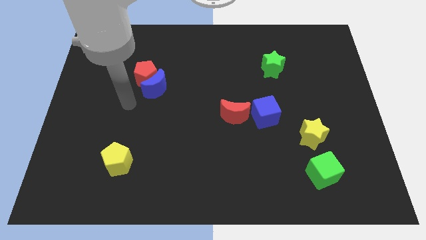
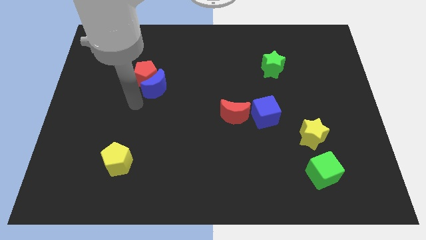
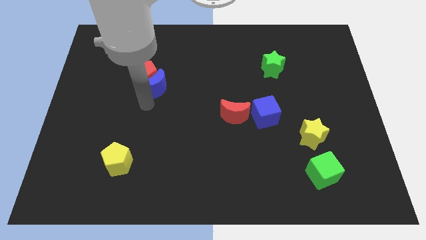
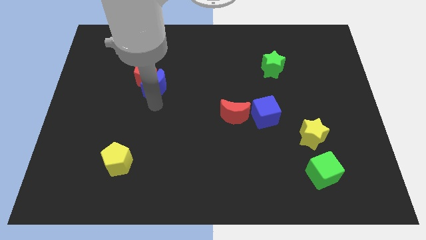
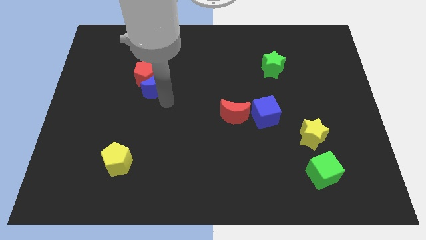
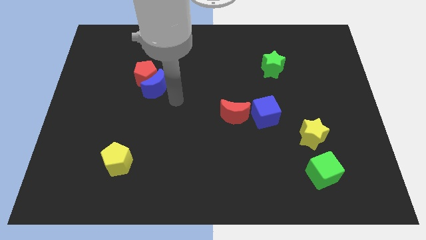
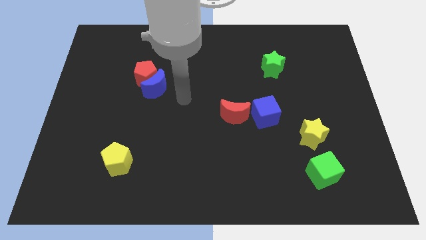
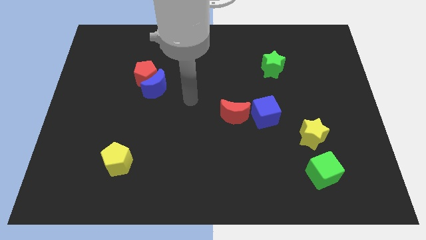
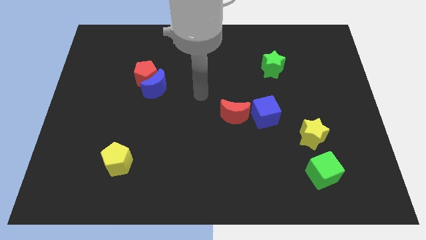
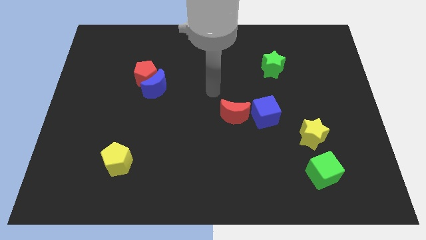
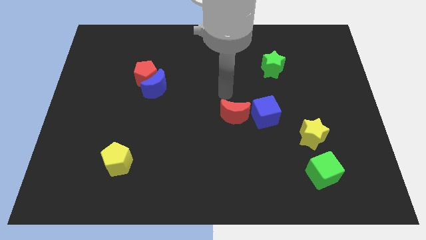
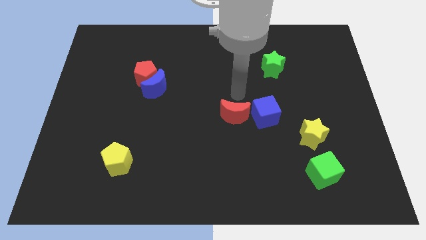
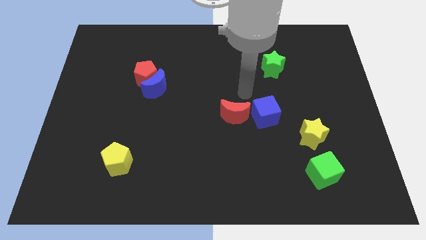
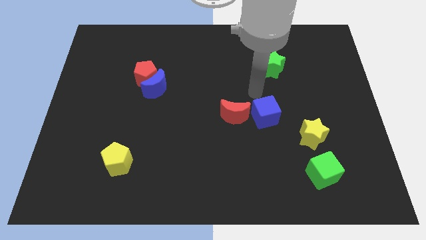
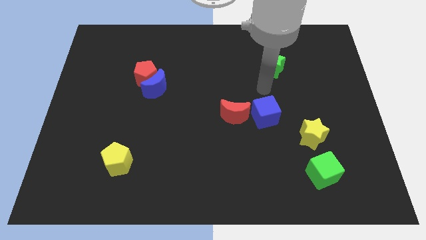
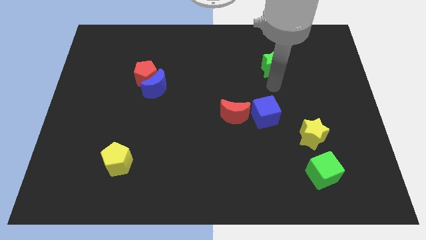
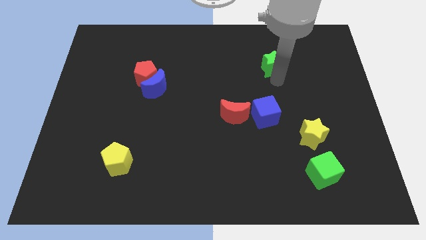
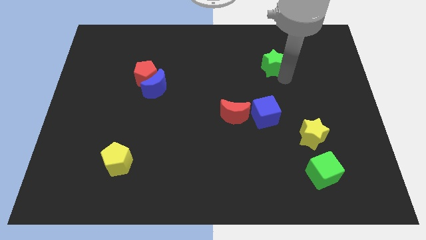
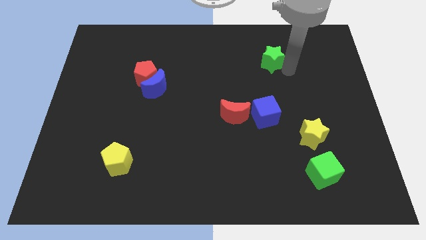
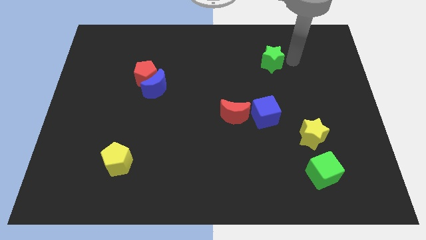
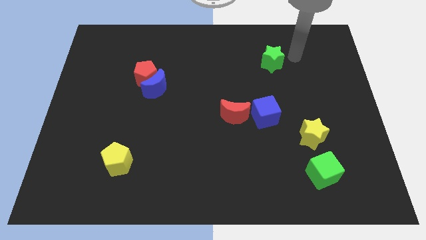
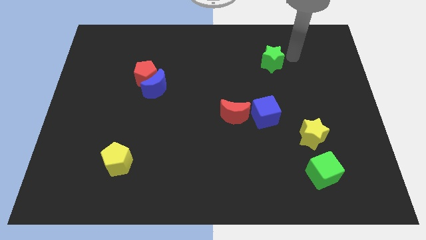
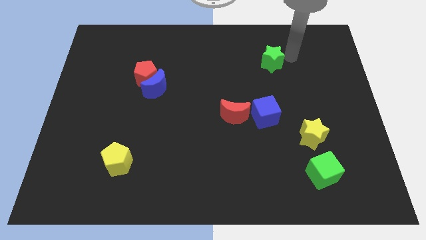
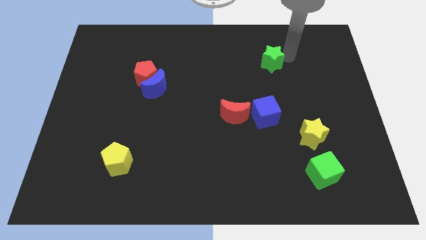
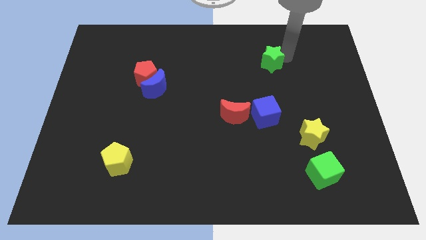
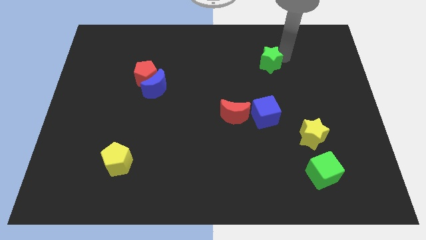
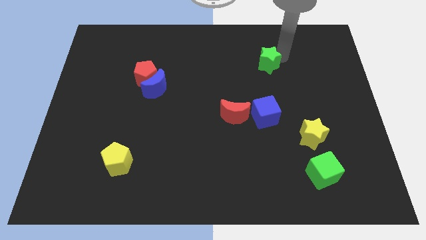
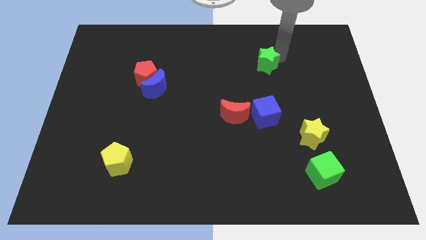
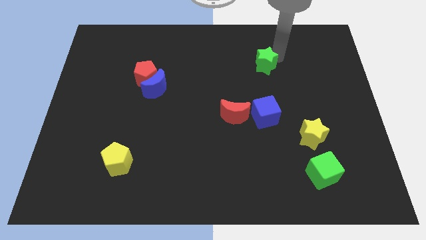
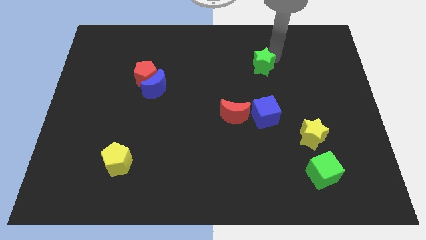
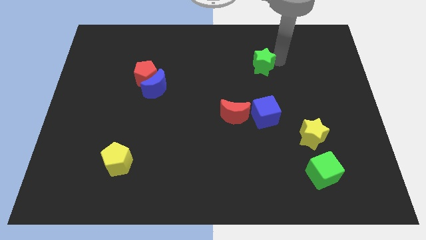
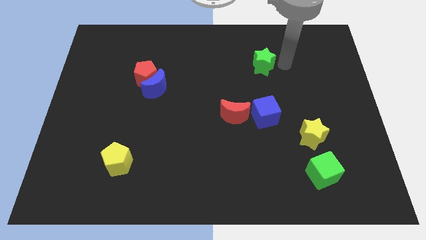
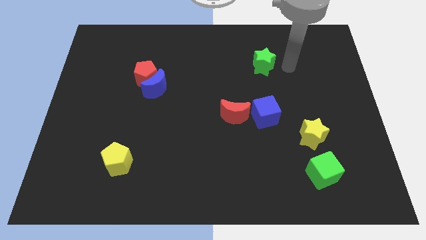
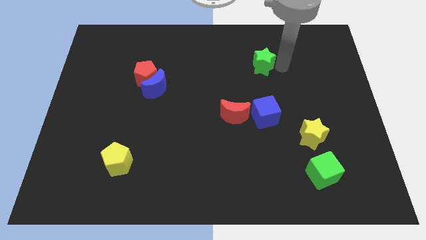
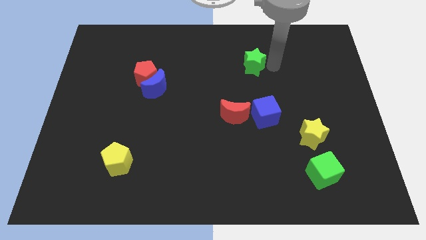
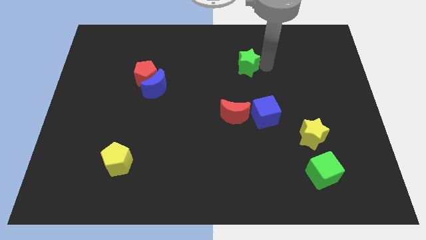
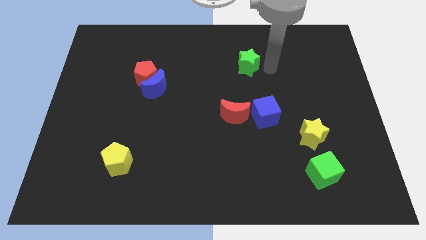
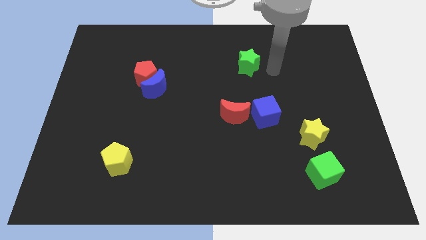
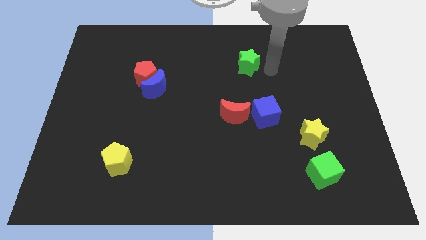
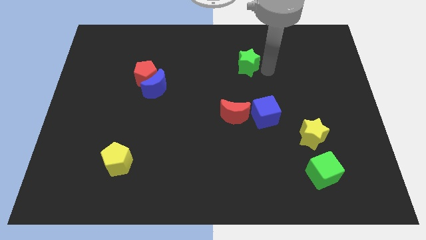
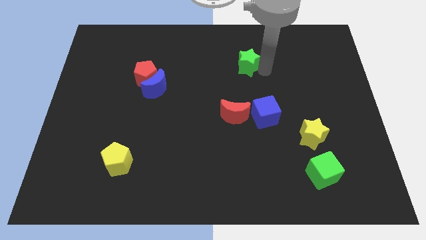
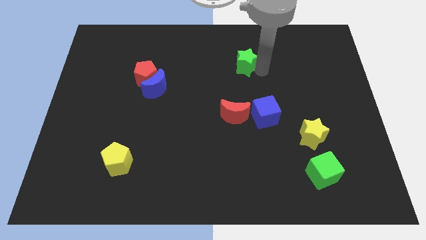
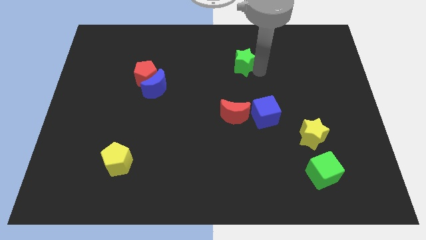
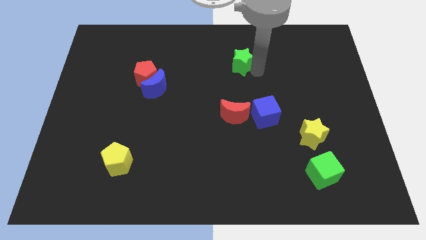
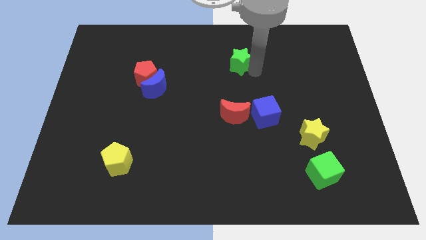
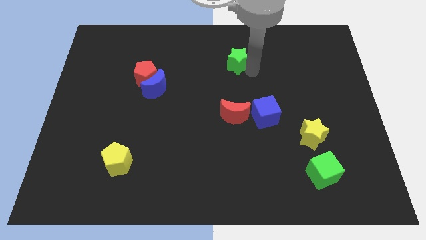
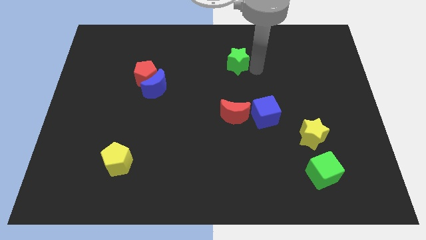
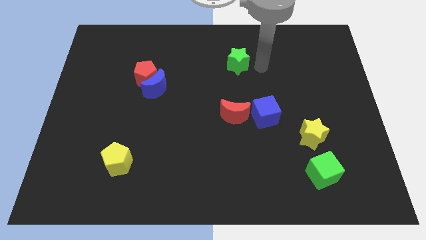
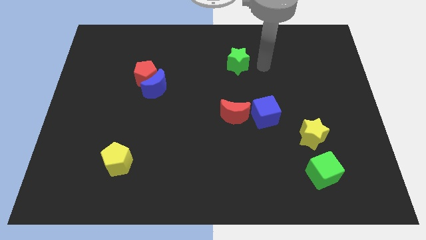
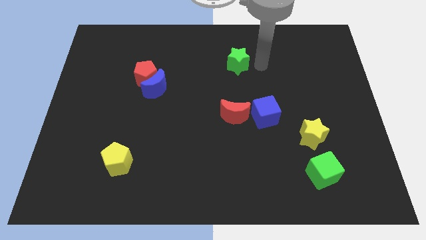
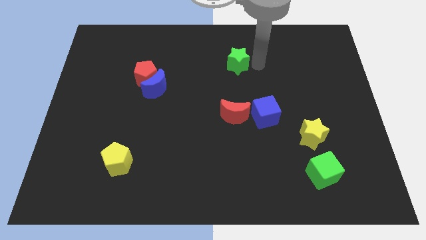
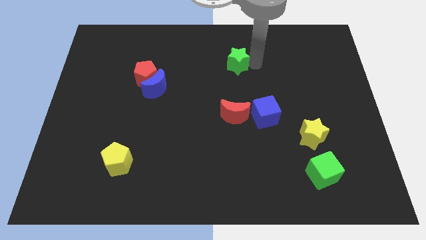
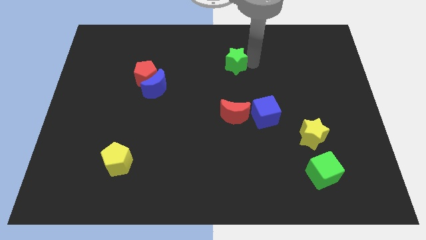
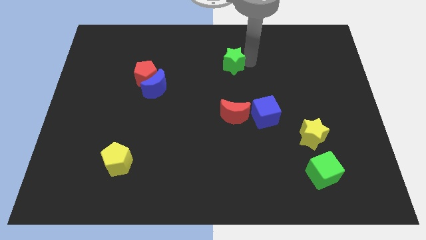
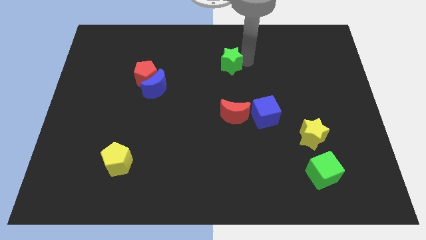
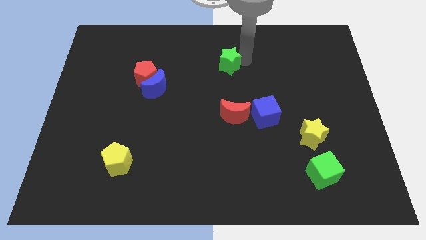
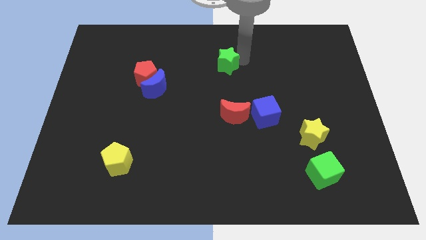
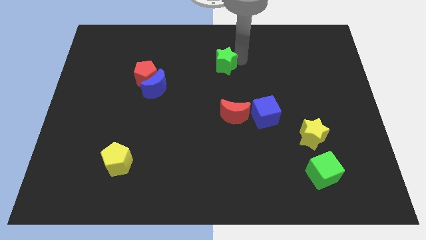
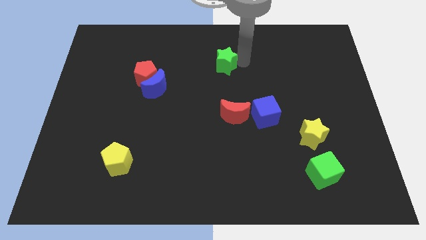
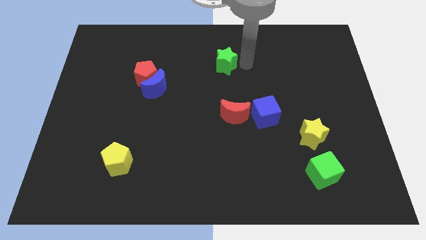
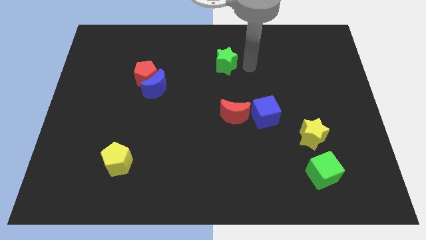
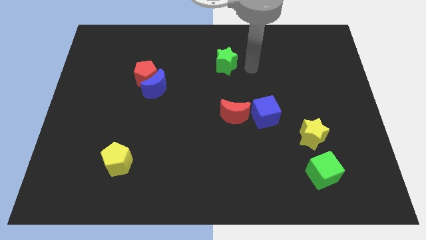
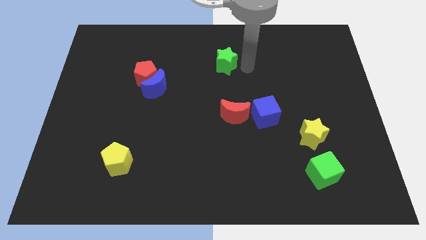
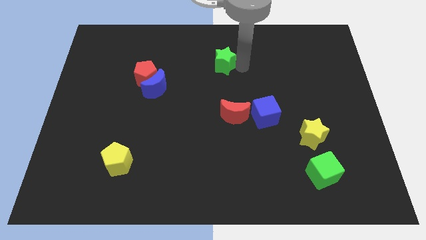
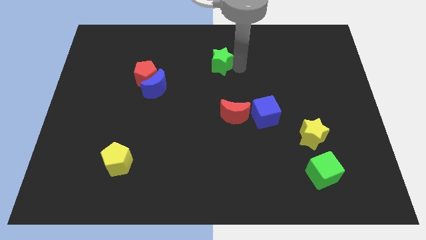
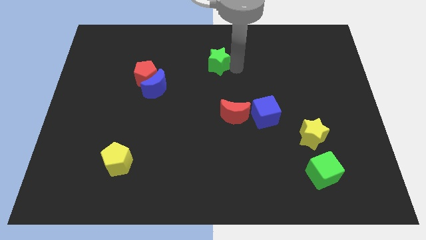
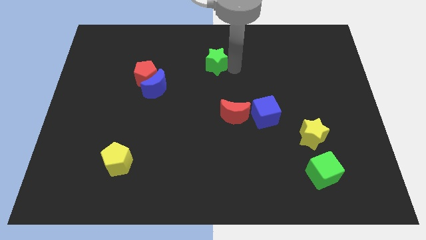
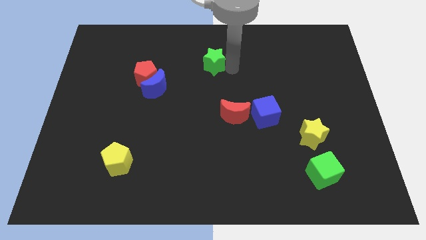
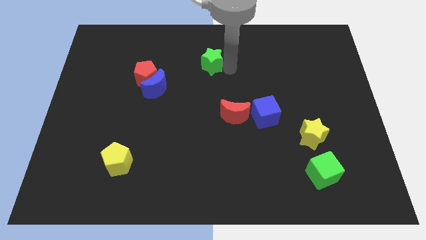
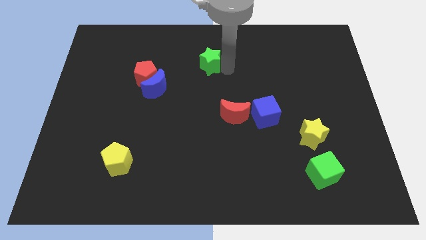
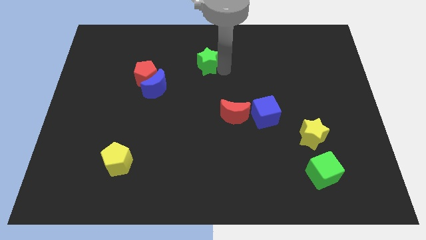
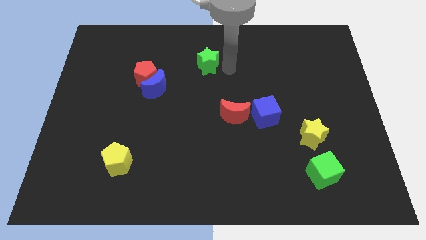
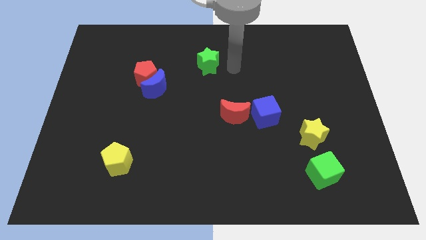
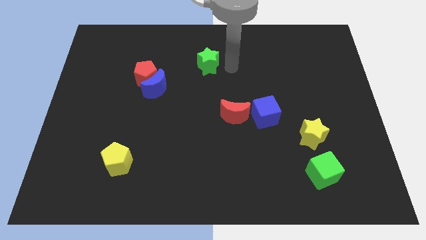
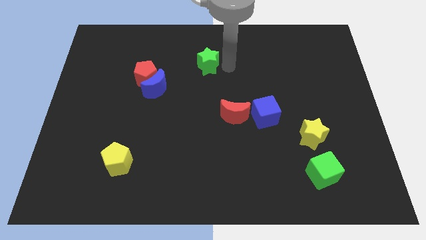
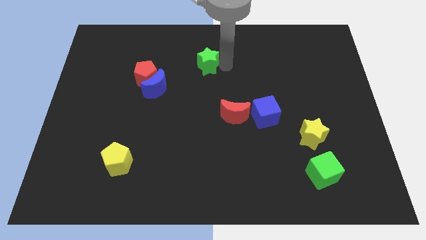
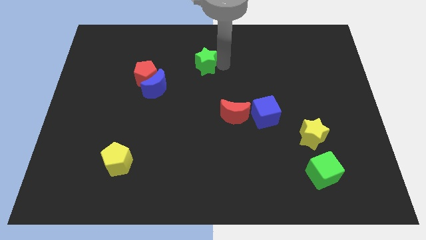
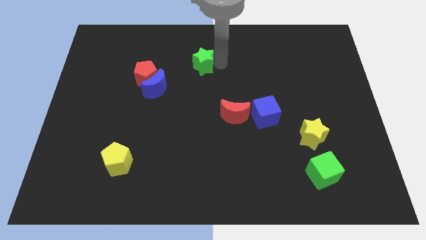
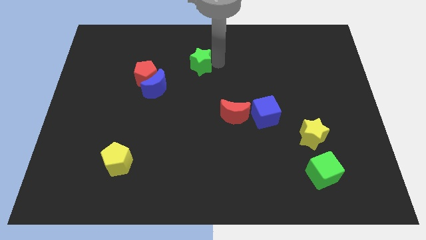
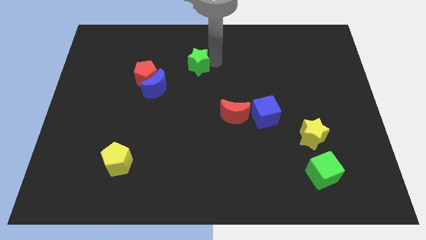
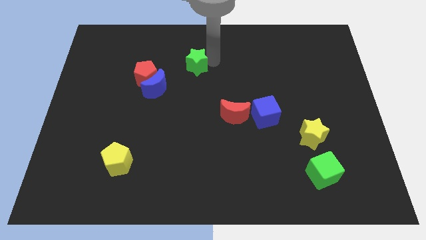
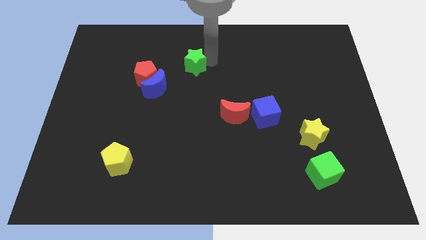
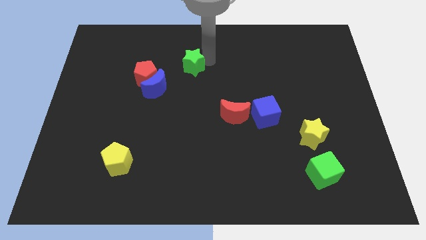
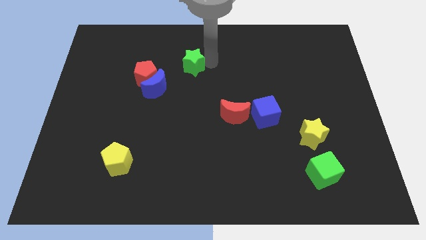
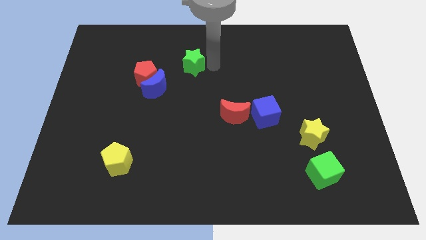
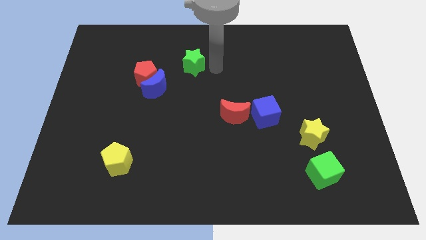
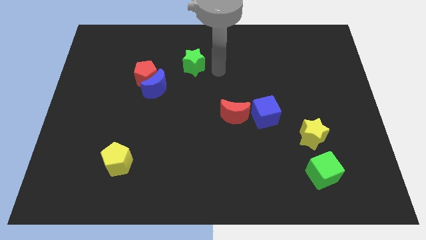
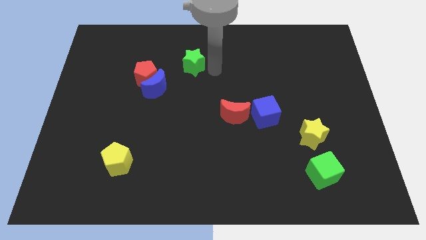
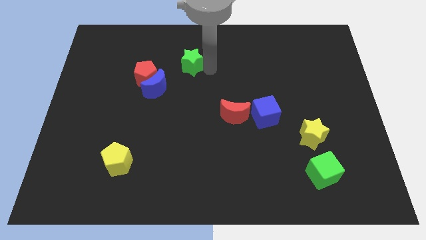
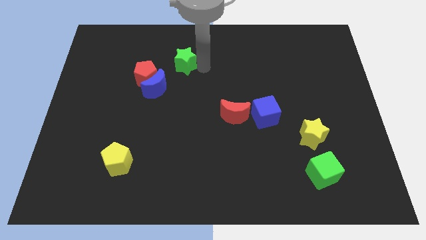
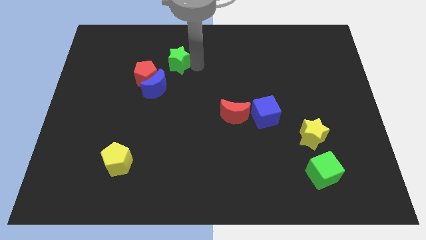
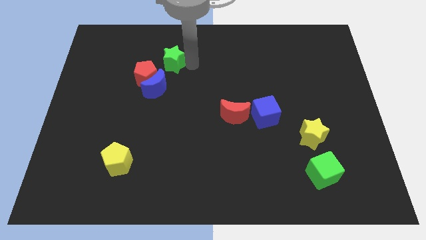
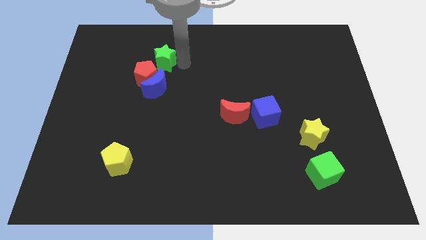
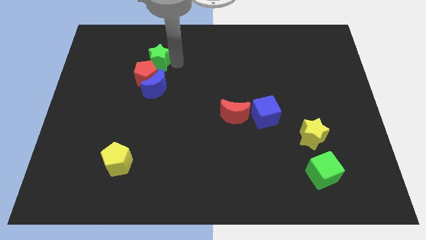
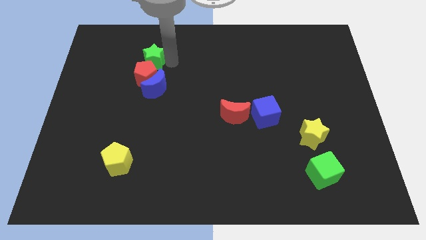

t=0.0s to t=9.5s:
slide the green star towards the red pentagon
